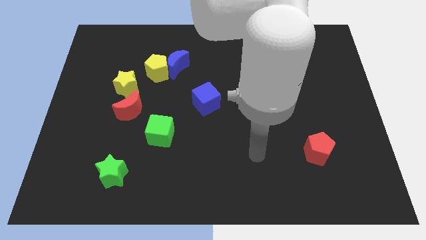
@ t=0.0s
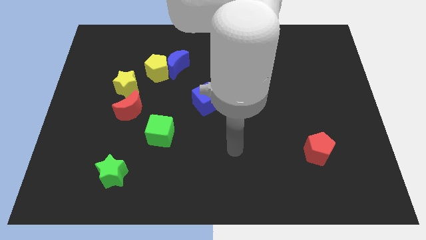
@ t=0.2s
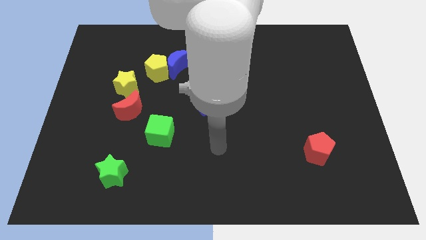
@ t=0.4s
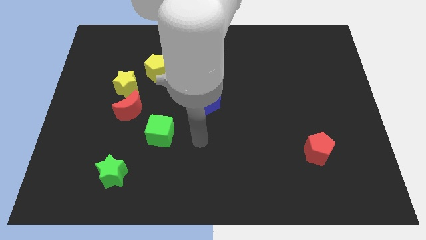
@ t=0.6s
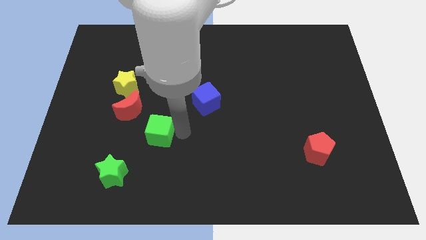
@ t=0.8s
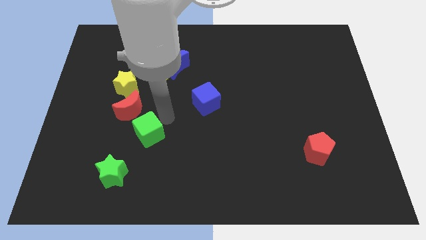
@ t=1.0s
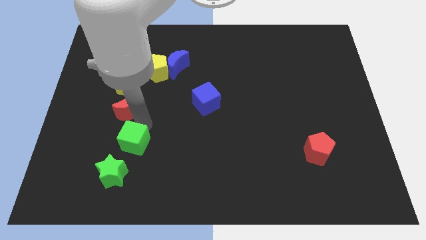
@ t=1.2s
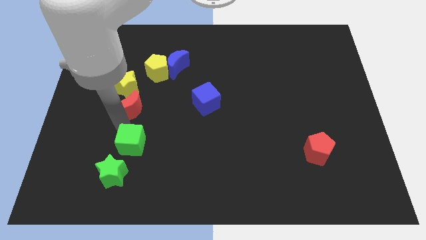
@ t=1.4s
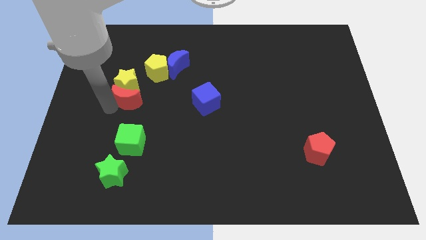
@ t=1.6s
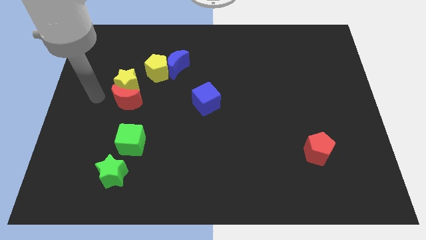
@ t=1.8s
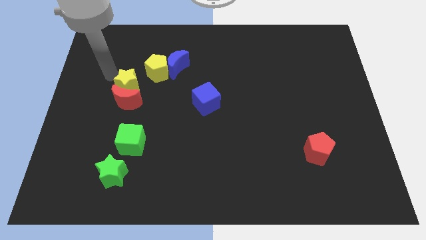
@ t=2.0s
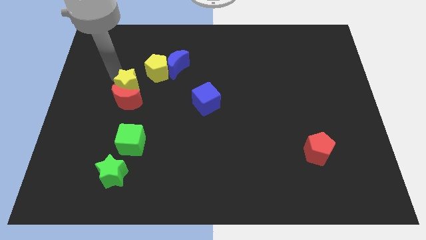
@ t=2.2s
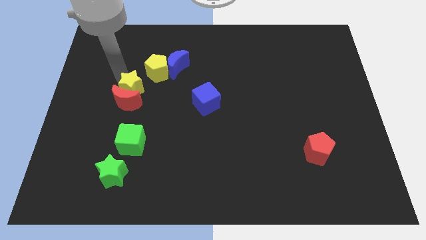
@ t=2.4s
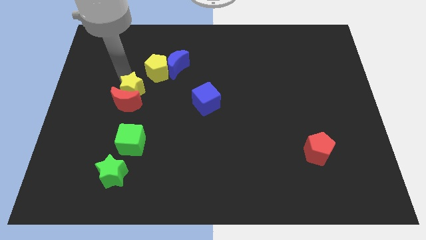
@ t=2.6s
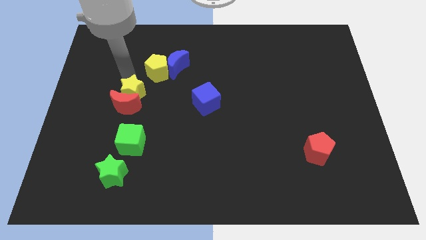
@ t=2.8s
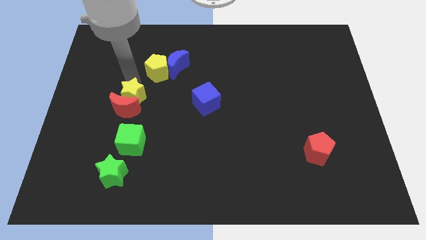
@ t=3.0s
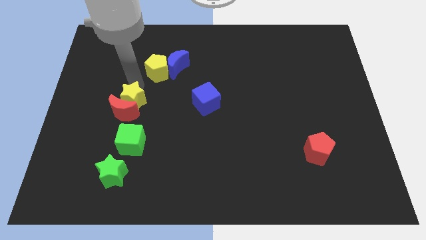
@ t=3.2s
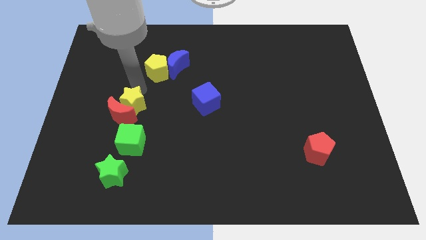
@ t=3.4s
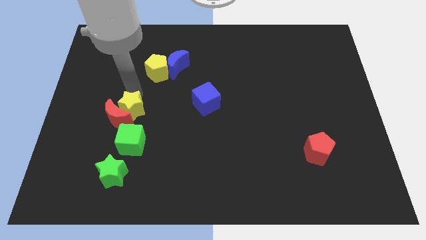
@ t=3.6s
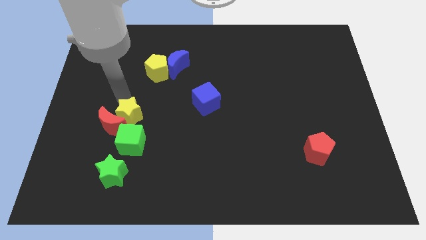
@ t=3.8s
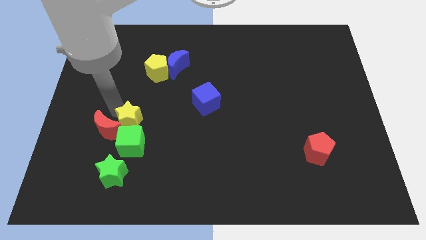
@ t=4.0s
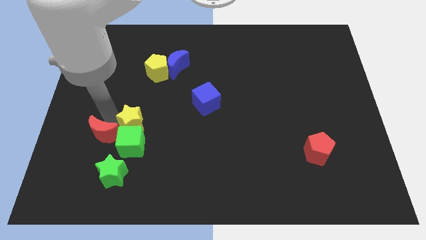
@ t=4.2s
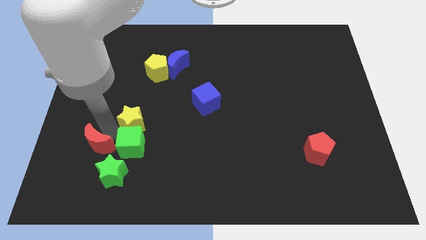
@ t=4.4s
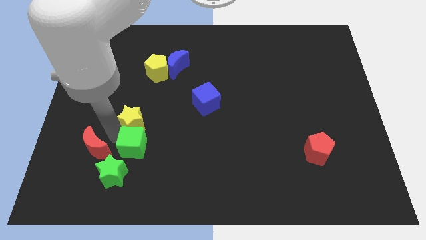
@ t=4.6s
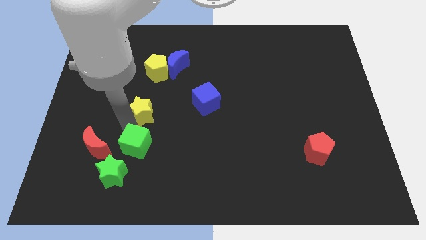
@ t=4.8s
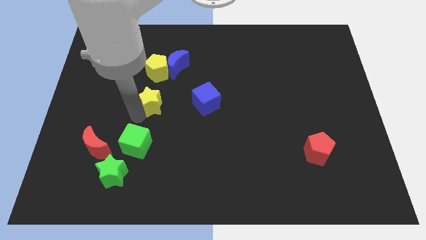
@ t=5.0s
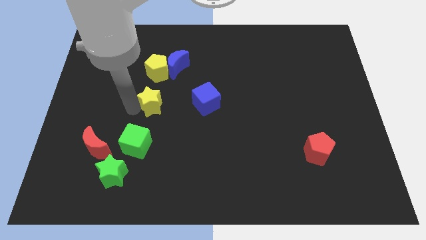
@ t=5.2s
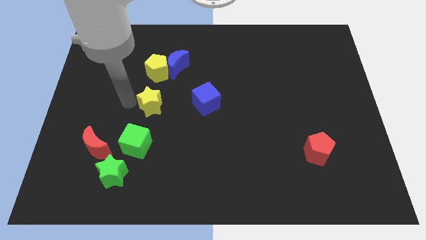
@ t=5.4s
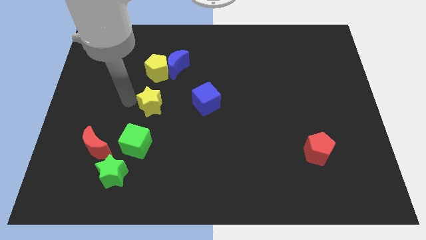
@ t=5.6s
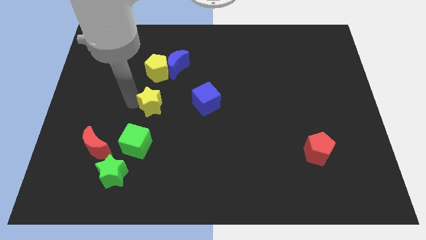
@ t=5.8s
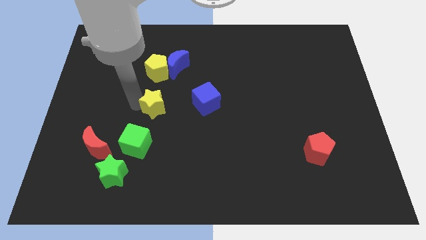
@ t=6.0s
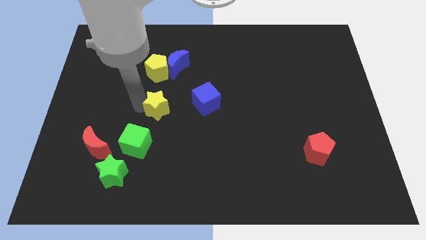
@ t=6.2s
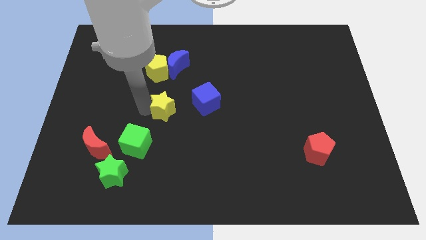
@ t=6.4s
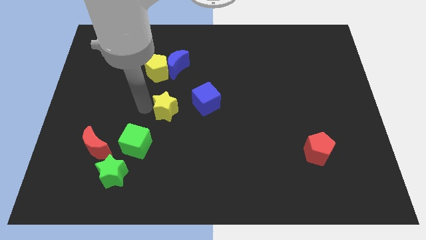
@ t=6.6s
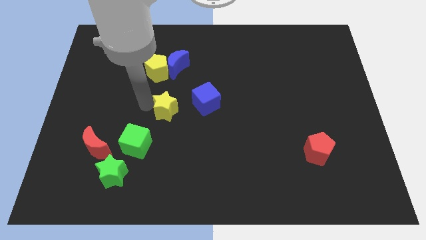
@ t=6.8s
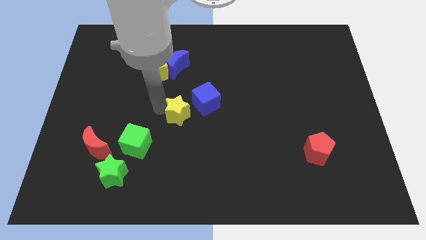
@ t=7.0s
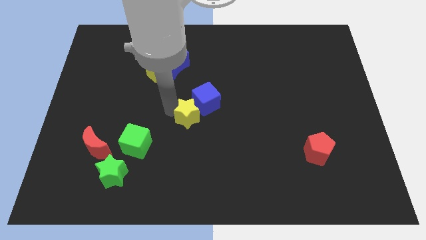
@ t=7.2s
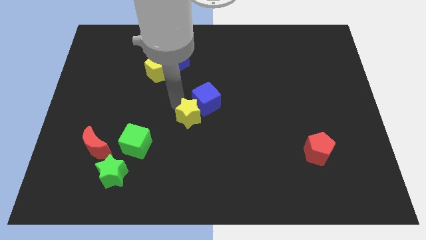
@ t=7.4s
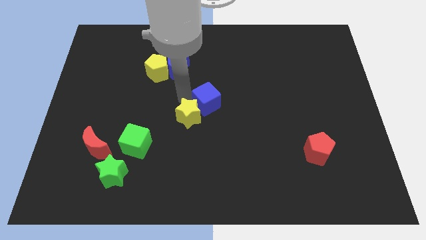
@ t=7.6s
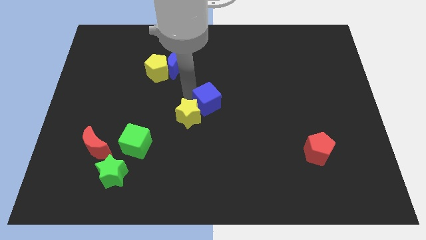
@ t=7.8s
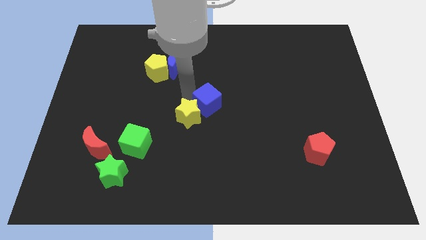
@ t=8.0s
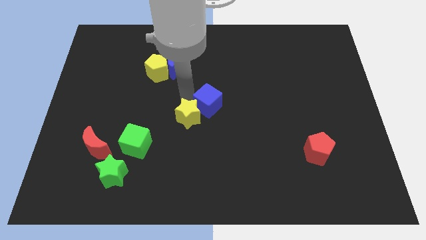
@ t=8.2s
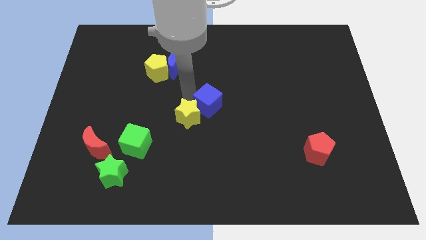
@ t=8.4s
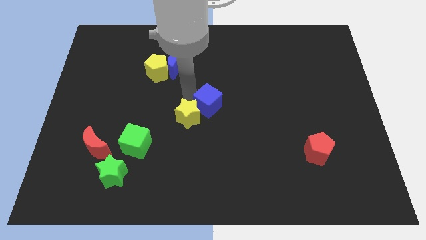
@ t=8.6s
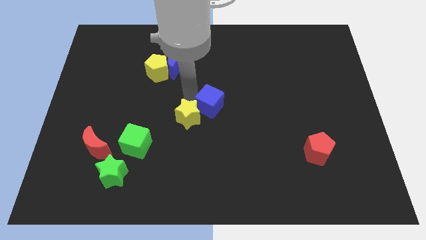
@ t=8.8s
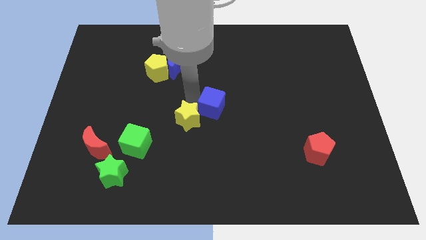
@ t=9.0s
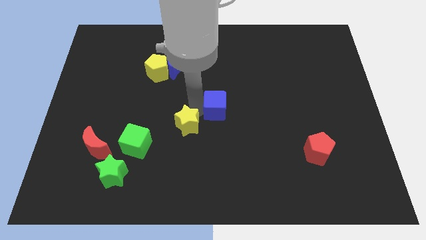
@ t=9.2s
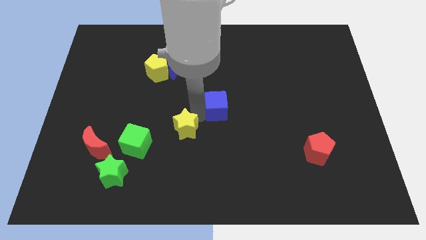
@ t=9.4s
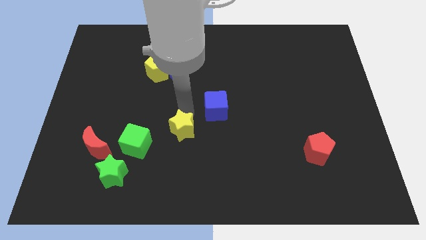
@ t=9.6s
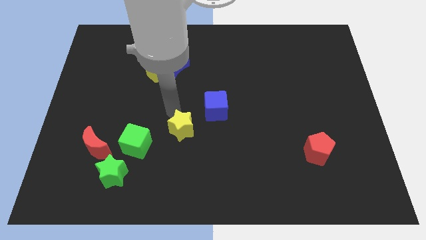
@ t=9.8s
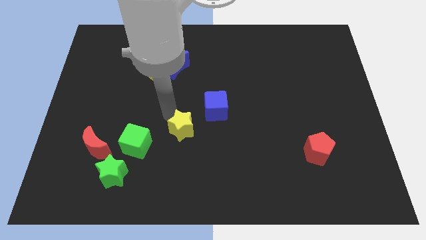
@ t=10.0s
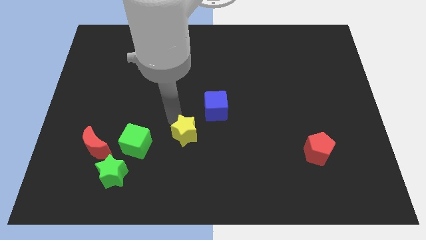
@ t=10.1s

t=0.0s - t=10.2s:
push the yellow star down and to the right diagonally

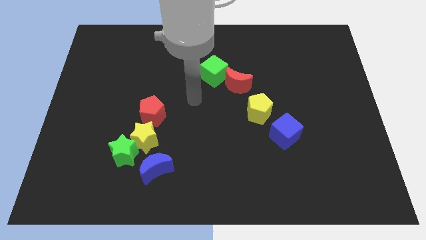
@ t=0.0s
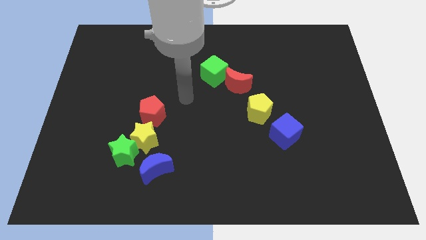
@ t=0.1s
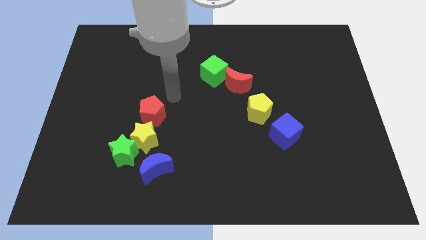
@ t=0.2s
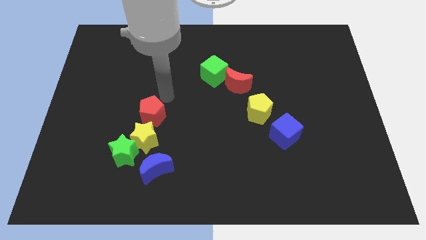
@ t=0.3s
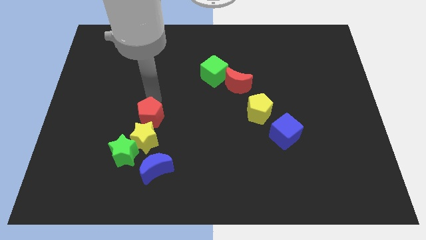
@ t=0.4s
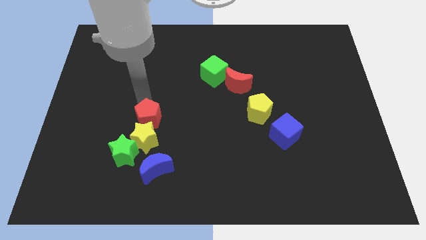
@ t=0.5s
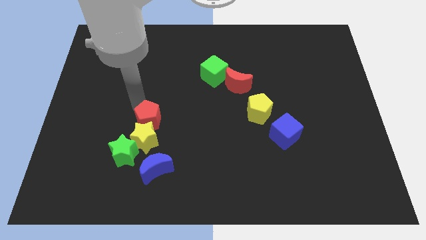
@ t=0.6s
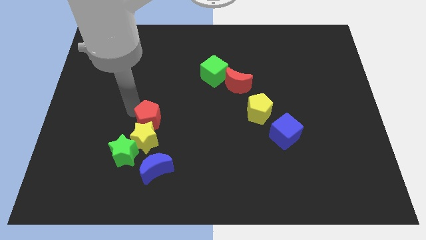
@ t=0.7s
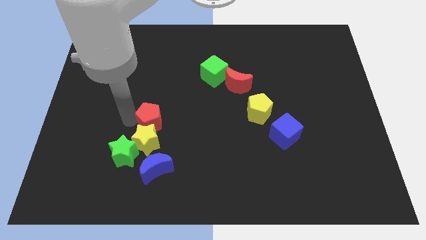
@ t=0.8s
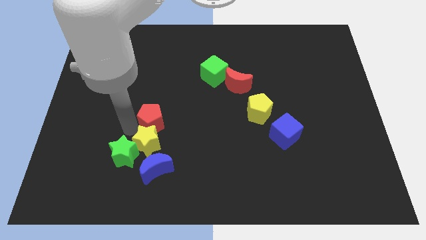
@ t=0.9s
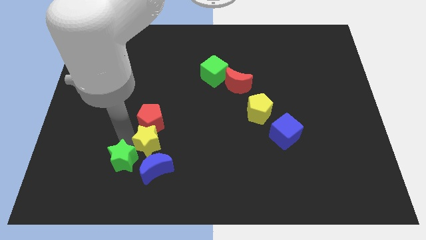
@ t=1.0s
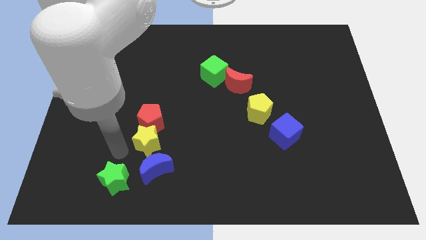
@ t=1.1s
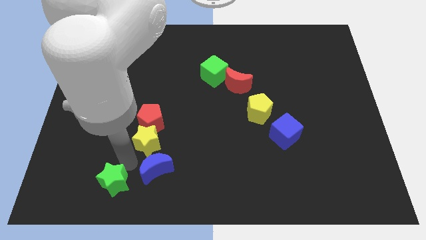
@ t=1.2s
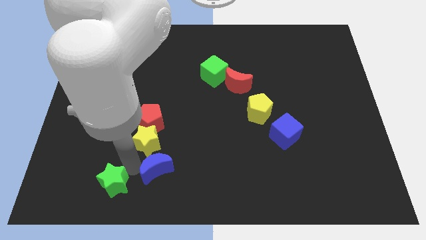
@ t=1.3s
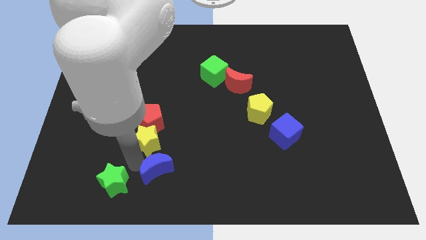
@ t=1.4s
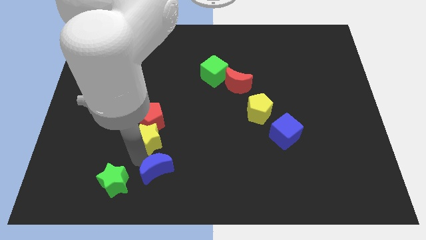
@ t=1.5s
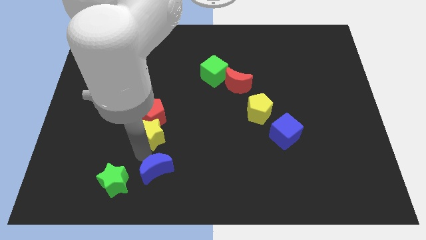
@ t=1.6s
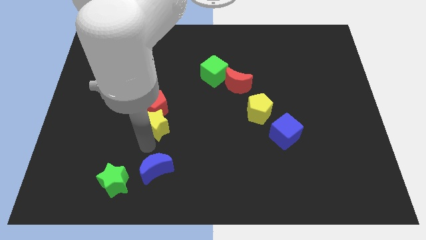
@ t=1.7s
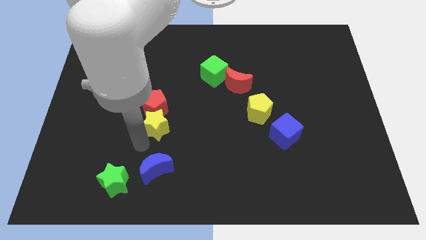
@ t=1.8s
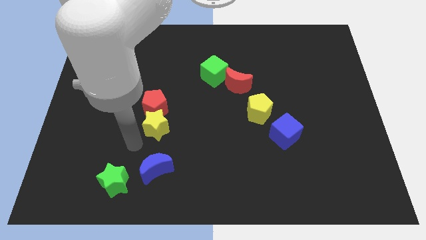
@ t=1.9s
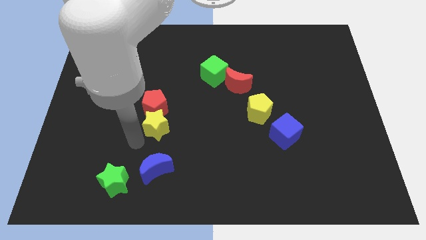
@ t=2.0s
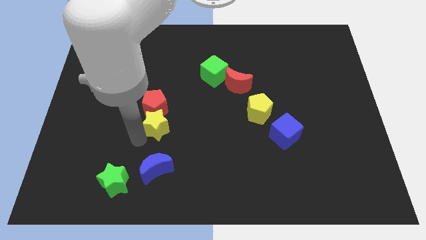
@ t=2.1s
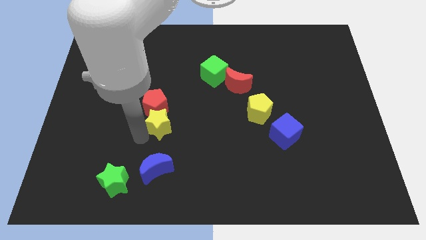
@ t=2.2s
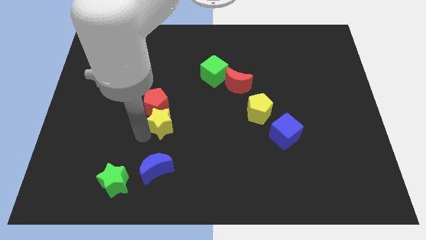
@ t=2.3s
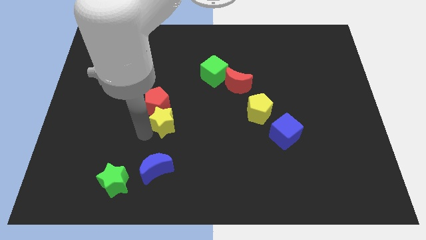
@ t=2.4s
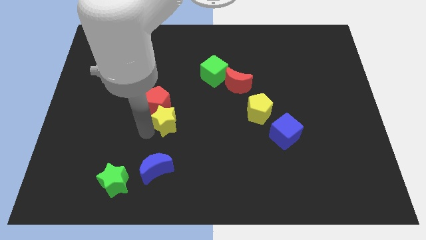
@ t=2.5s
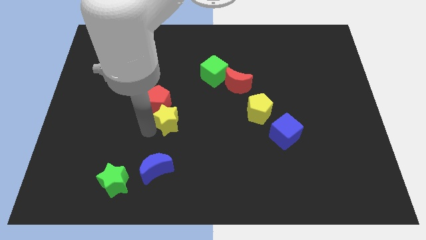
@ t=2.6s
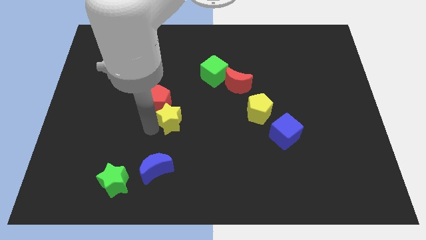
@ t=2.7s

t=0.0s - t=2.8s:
slightly move the yellow star upwards and to the right diagonally
